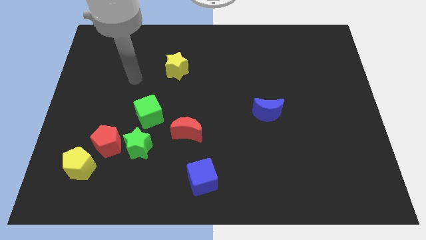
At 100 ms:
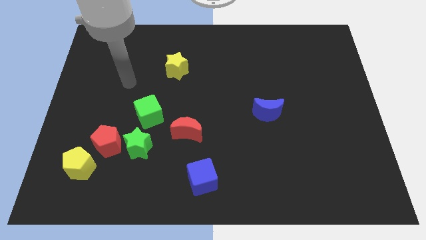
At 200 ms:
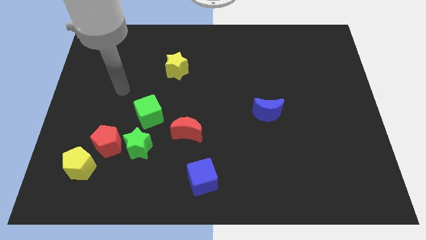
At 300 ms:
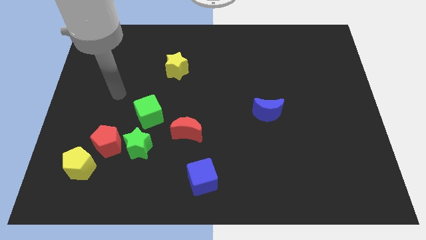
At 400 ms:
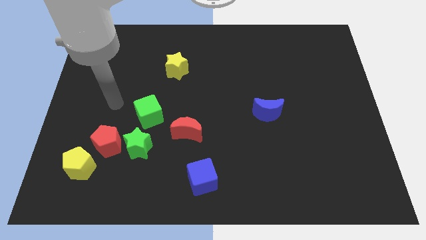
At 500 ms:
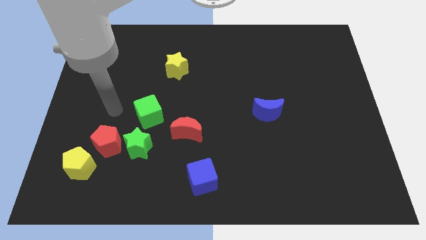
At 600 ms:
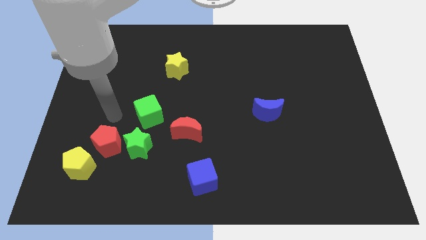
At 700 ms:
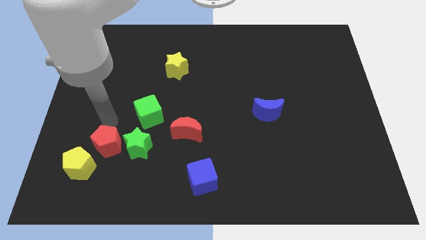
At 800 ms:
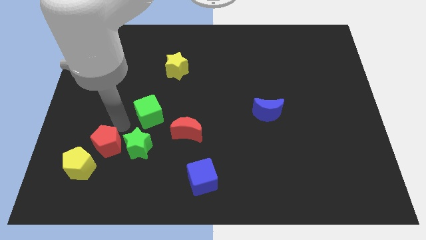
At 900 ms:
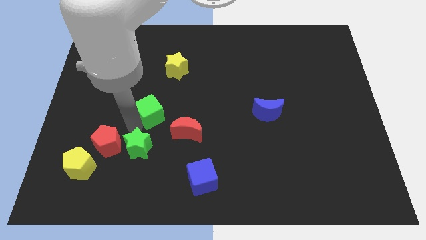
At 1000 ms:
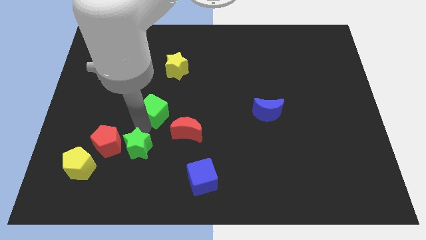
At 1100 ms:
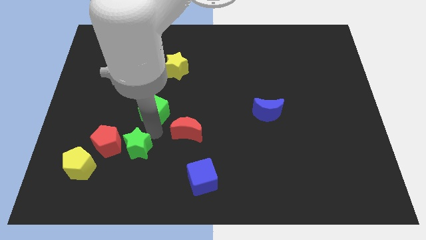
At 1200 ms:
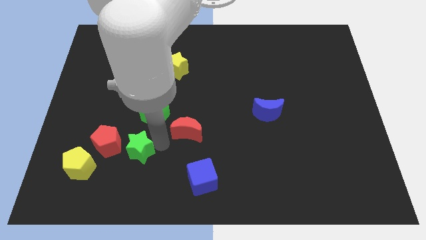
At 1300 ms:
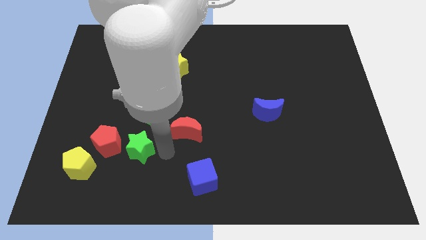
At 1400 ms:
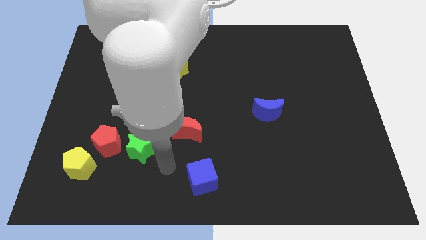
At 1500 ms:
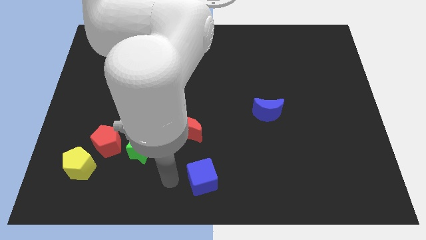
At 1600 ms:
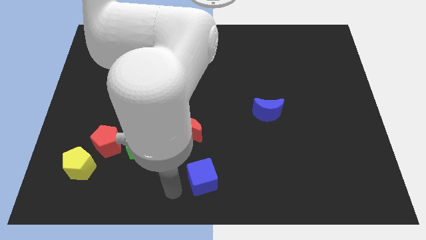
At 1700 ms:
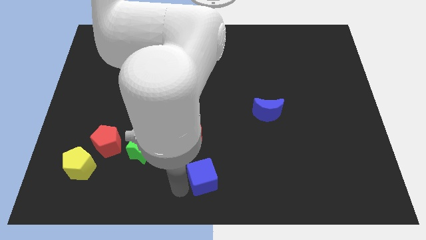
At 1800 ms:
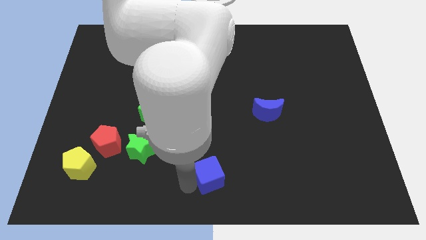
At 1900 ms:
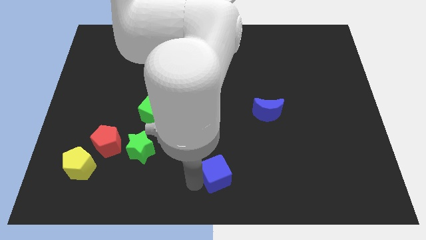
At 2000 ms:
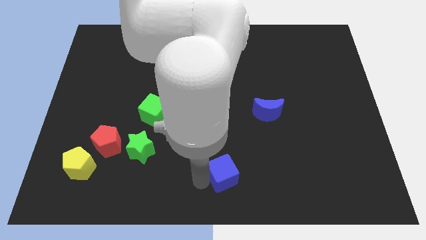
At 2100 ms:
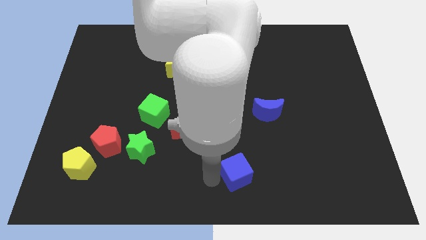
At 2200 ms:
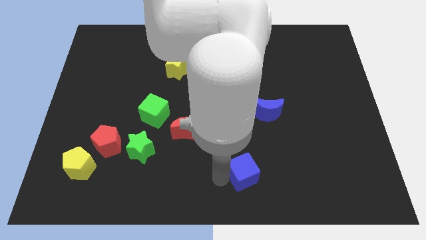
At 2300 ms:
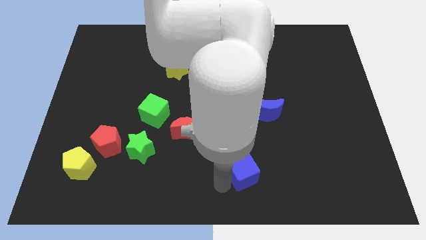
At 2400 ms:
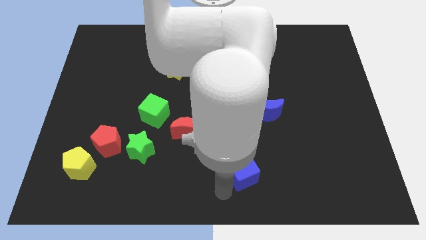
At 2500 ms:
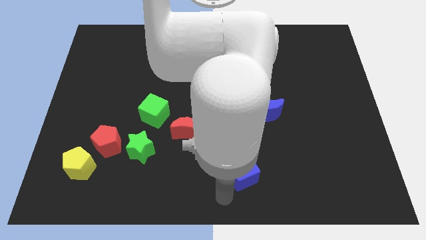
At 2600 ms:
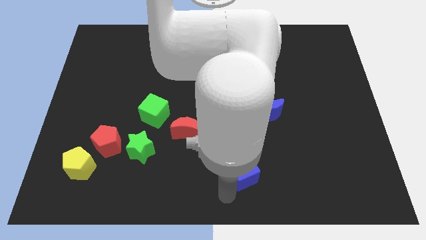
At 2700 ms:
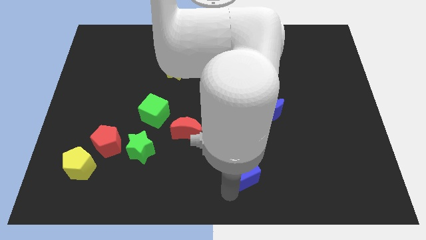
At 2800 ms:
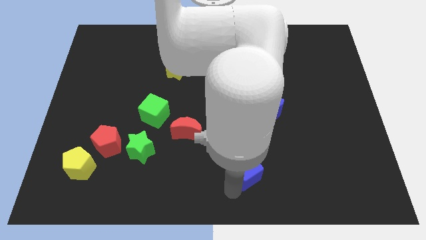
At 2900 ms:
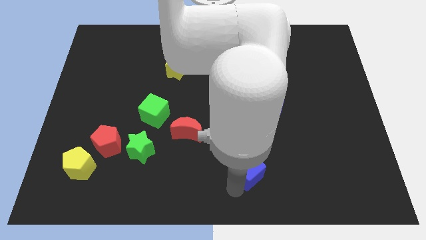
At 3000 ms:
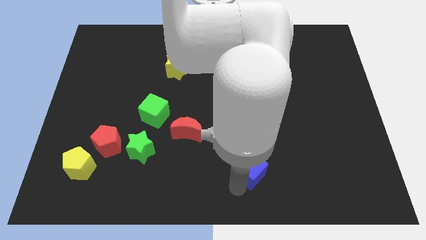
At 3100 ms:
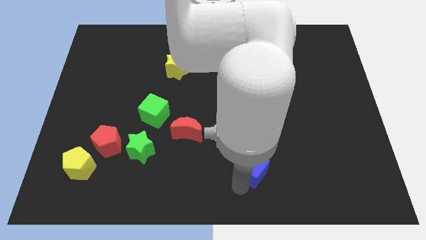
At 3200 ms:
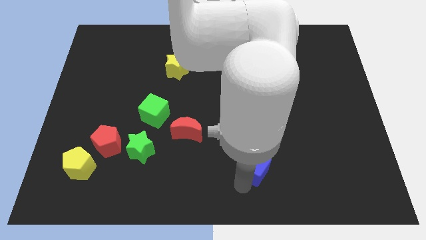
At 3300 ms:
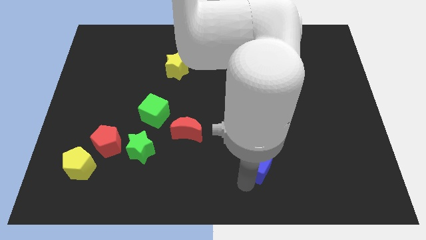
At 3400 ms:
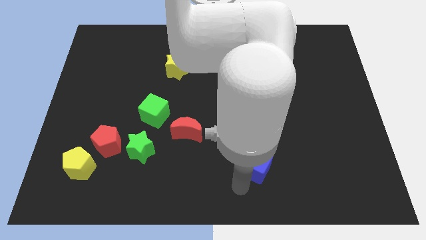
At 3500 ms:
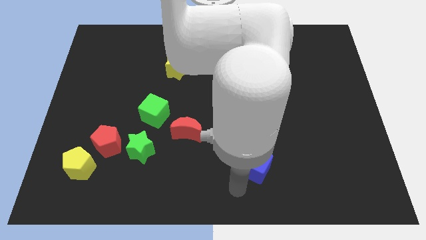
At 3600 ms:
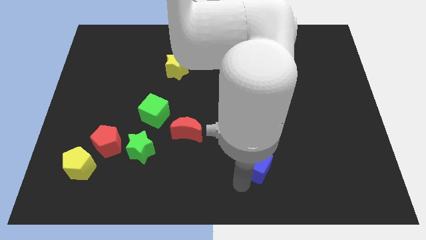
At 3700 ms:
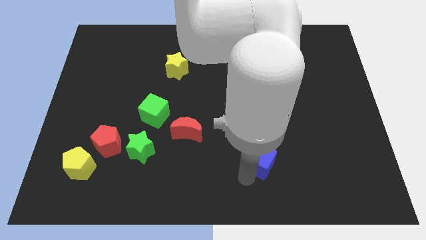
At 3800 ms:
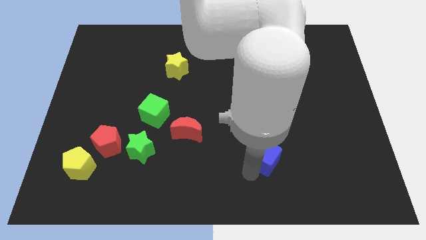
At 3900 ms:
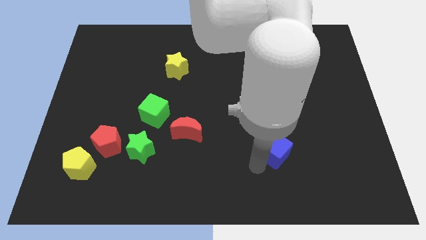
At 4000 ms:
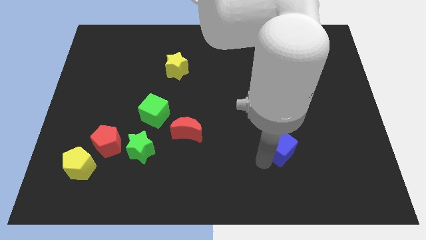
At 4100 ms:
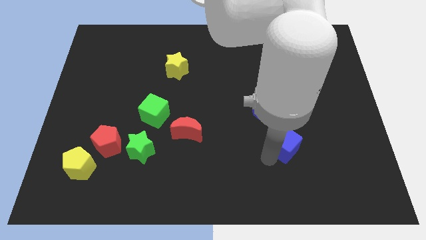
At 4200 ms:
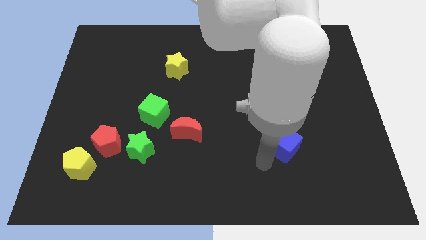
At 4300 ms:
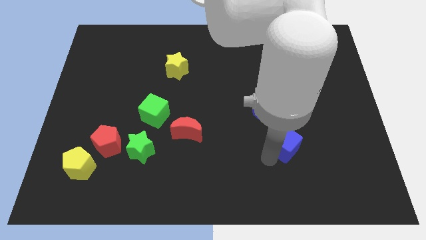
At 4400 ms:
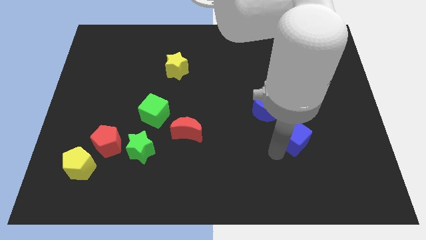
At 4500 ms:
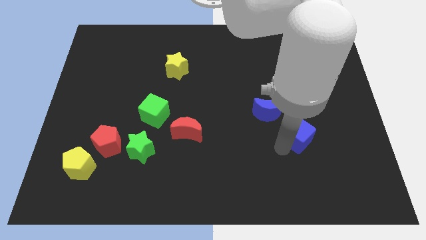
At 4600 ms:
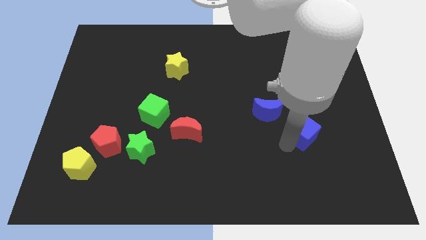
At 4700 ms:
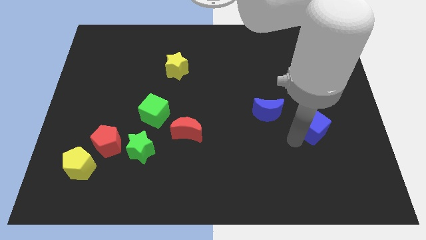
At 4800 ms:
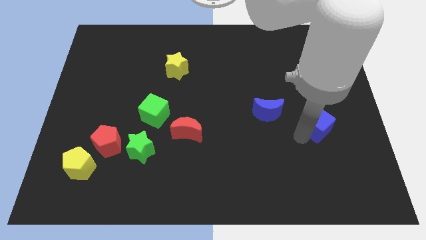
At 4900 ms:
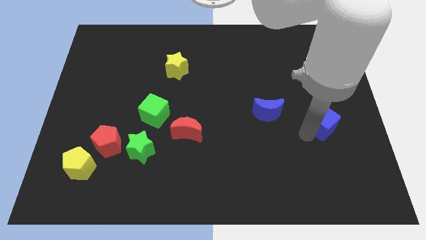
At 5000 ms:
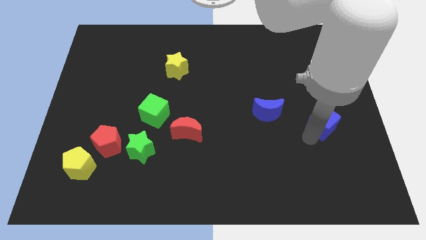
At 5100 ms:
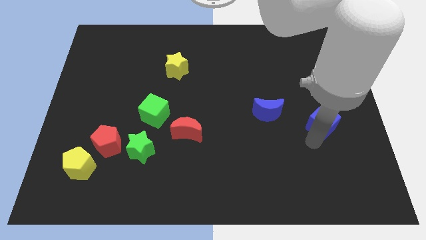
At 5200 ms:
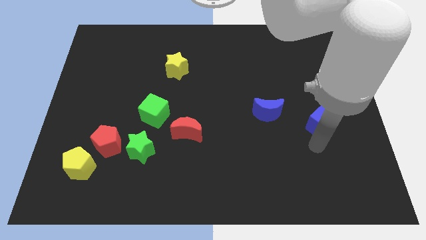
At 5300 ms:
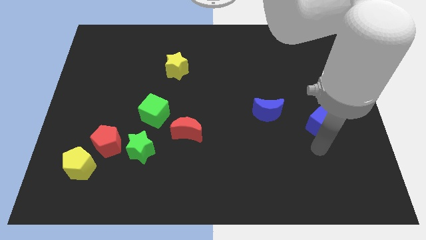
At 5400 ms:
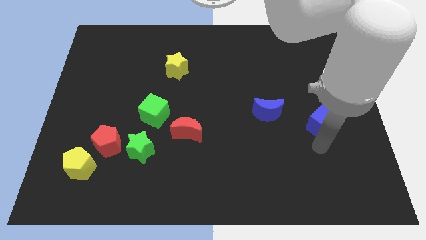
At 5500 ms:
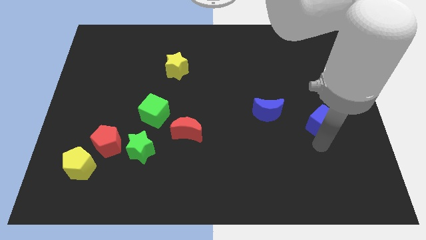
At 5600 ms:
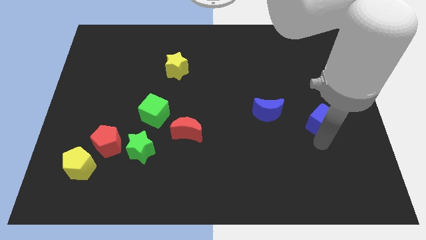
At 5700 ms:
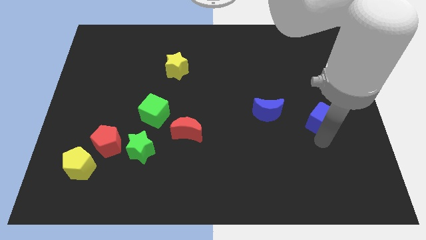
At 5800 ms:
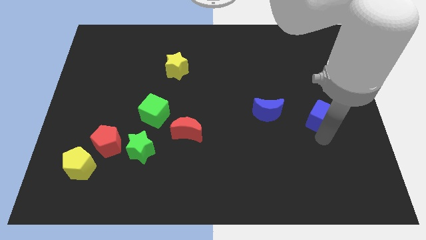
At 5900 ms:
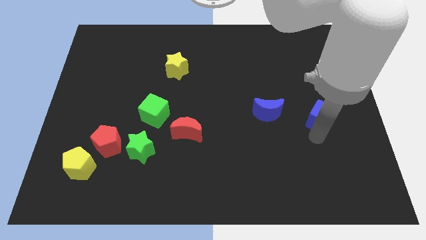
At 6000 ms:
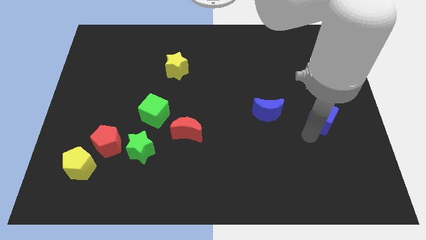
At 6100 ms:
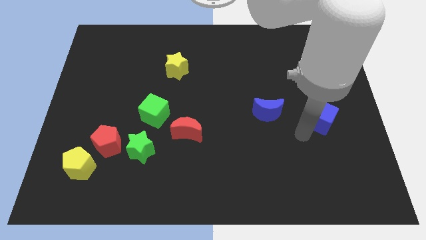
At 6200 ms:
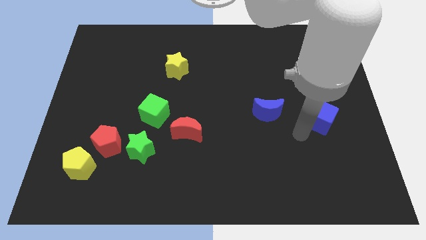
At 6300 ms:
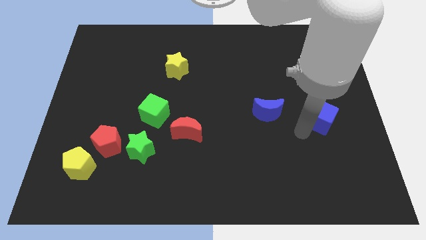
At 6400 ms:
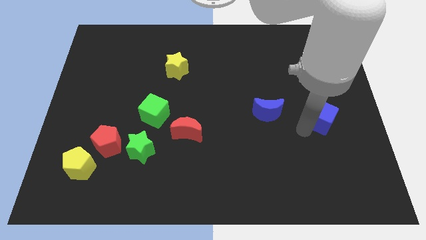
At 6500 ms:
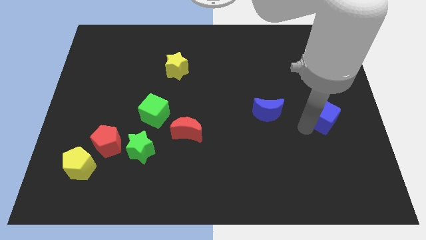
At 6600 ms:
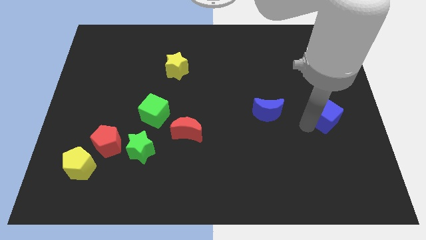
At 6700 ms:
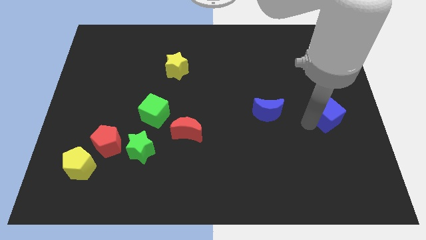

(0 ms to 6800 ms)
move the blue cube to the right side
